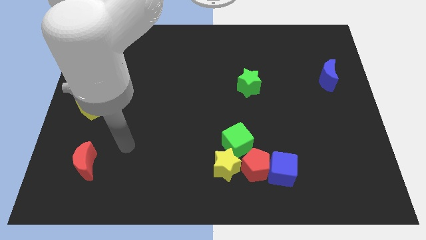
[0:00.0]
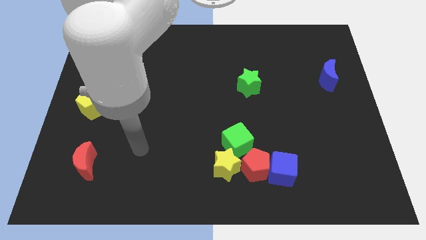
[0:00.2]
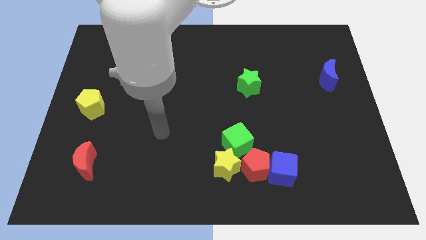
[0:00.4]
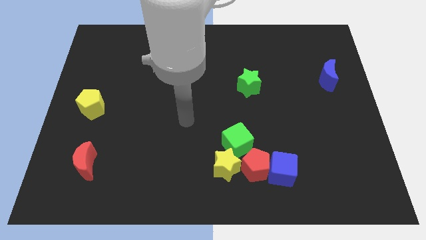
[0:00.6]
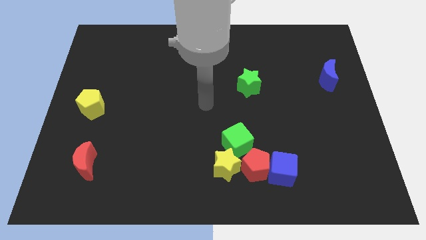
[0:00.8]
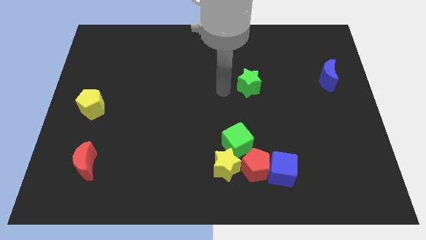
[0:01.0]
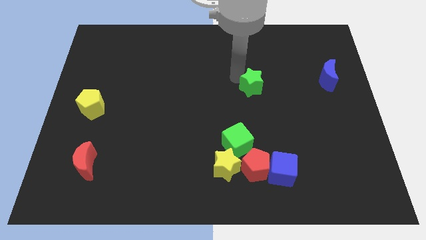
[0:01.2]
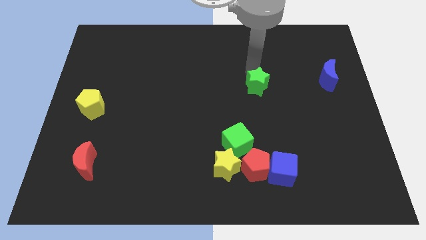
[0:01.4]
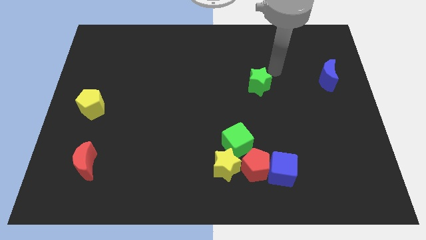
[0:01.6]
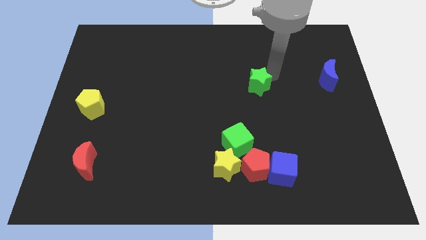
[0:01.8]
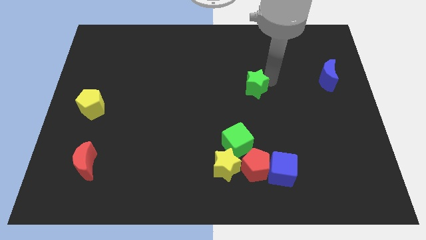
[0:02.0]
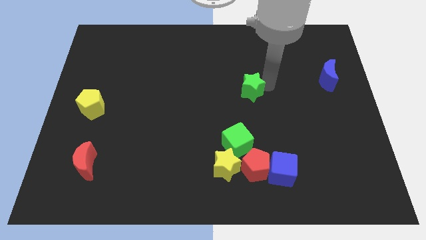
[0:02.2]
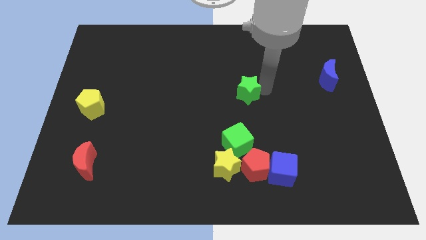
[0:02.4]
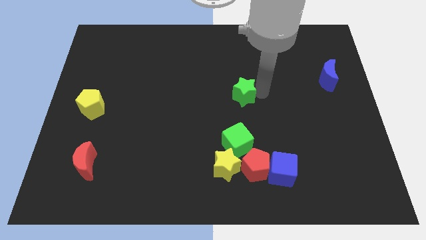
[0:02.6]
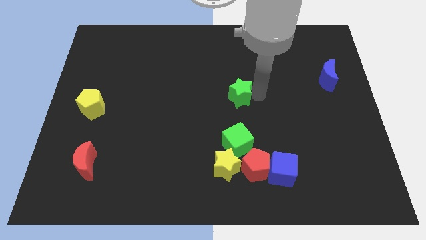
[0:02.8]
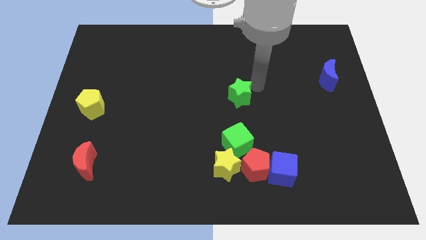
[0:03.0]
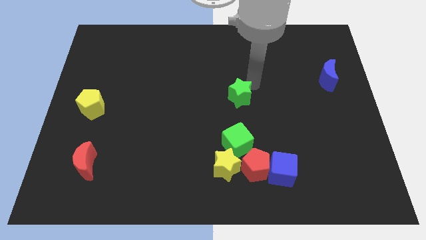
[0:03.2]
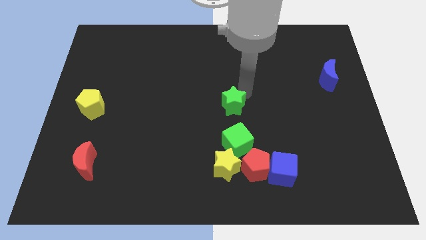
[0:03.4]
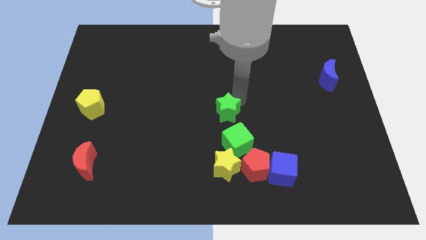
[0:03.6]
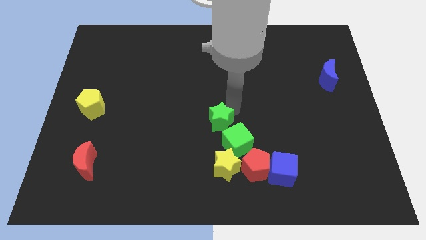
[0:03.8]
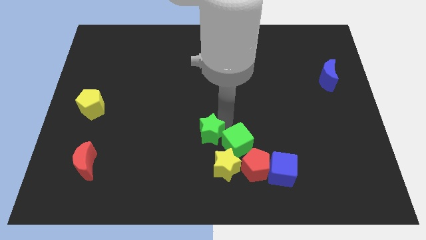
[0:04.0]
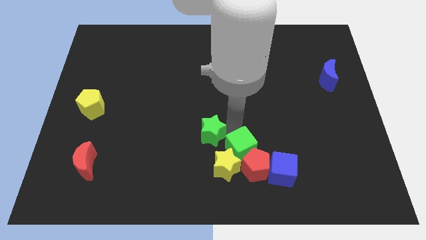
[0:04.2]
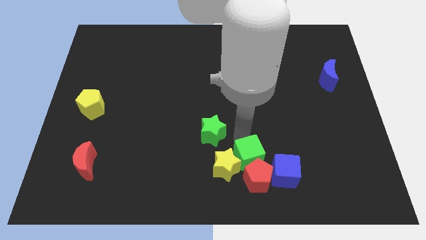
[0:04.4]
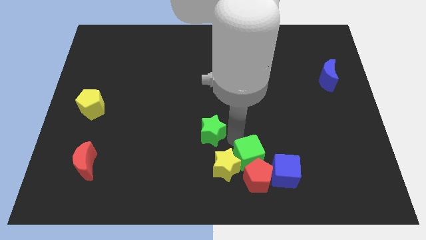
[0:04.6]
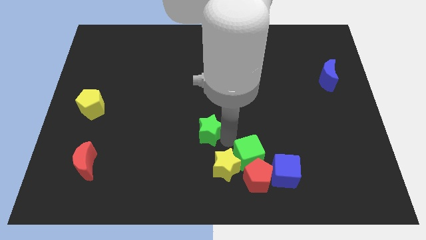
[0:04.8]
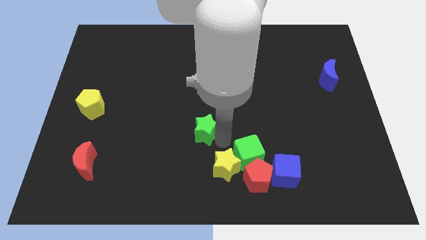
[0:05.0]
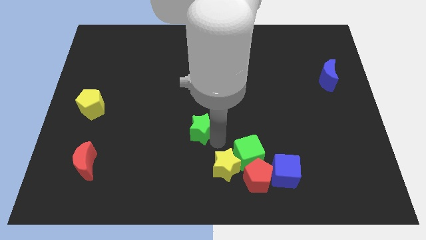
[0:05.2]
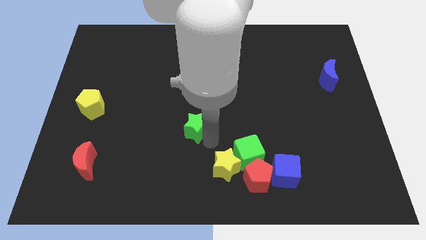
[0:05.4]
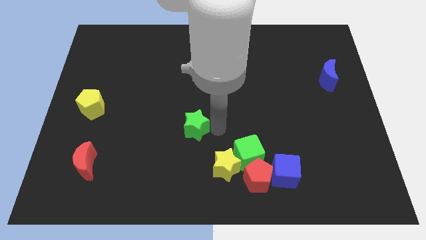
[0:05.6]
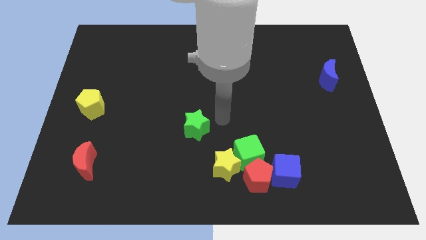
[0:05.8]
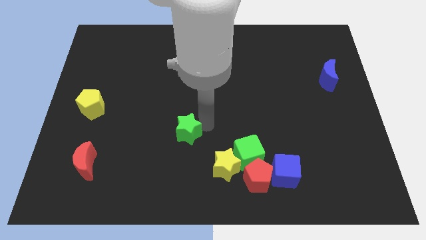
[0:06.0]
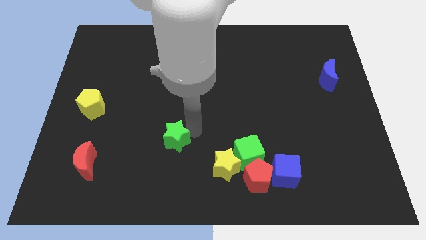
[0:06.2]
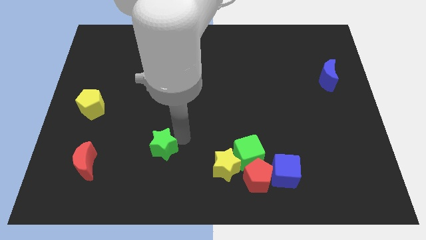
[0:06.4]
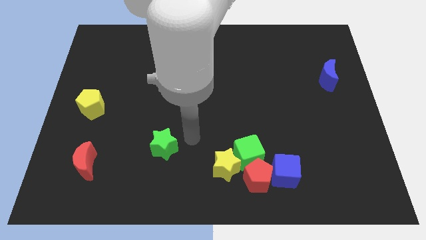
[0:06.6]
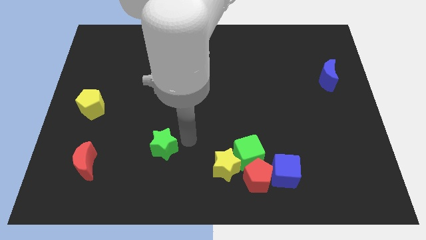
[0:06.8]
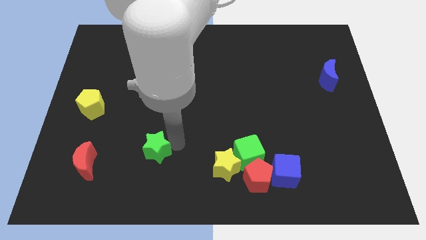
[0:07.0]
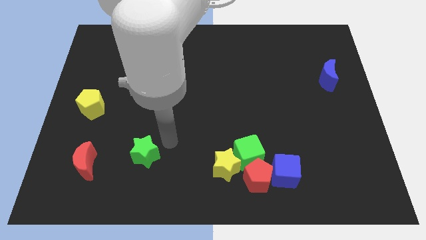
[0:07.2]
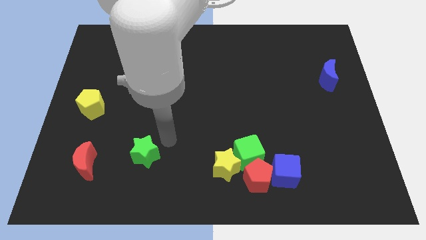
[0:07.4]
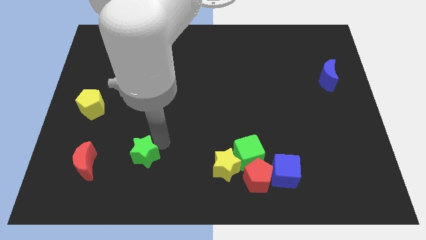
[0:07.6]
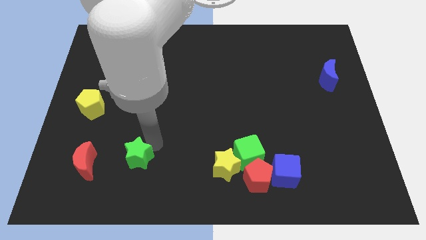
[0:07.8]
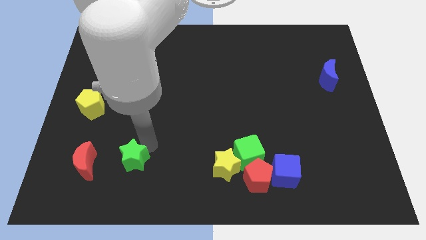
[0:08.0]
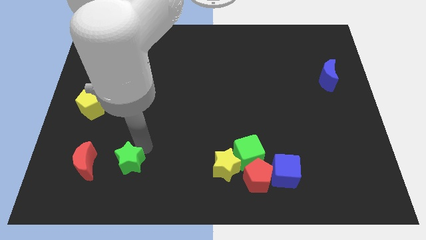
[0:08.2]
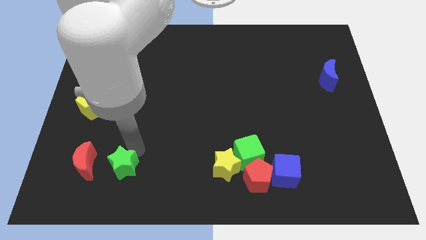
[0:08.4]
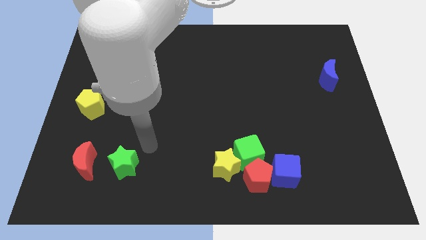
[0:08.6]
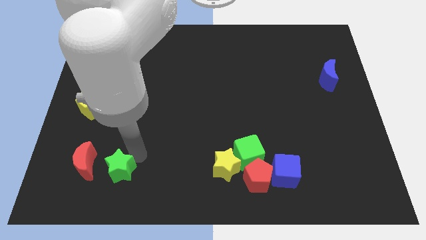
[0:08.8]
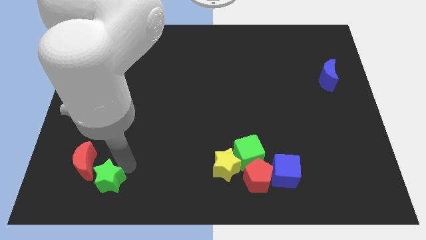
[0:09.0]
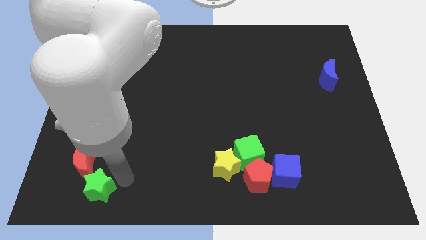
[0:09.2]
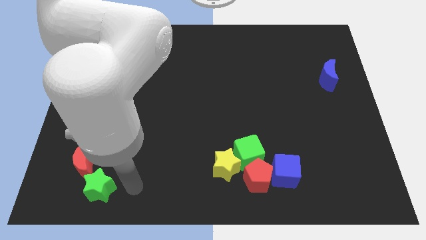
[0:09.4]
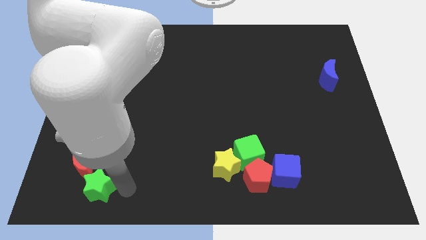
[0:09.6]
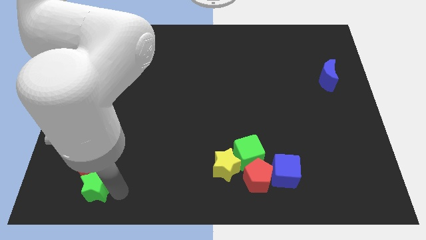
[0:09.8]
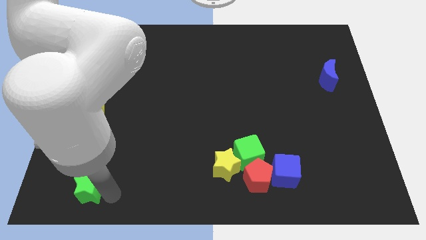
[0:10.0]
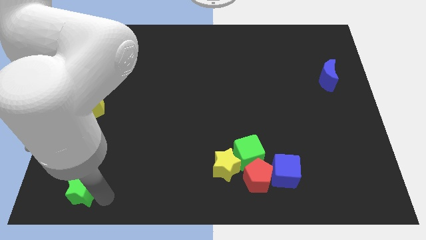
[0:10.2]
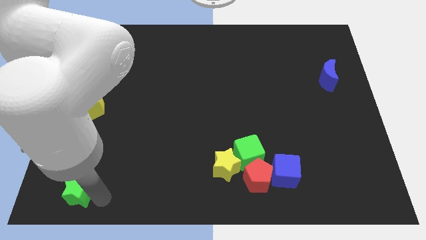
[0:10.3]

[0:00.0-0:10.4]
put the green star to the bottom left

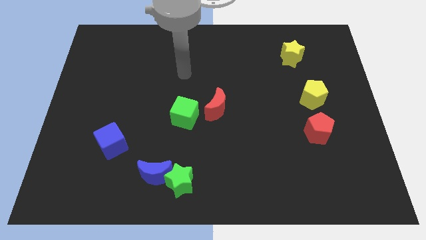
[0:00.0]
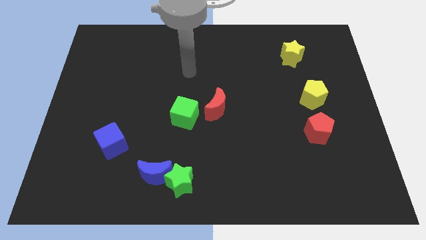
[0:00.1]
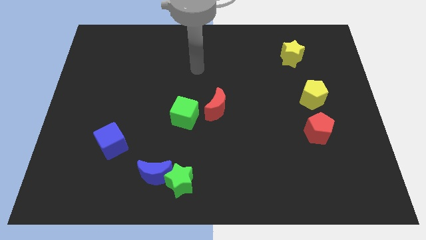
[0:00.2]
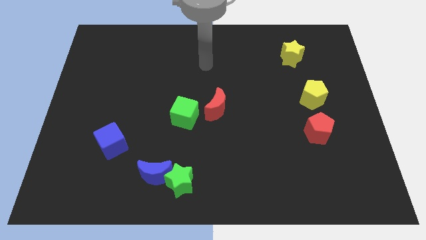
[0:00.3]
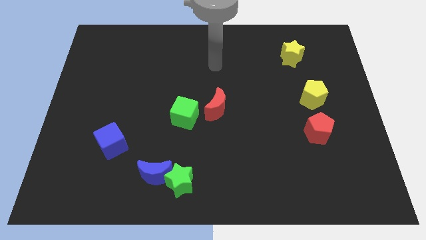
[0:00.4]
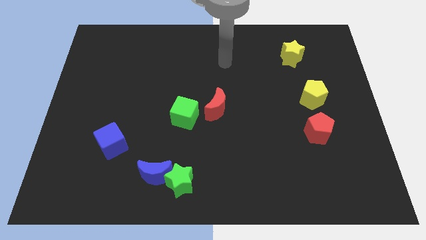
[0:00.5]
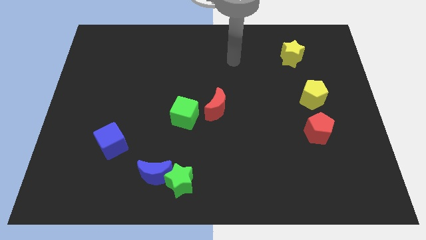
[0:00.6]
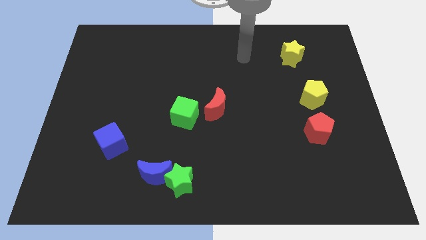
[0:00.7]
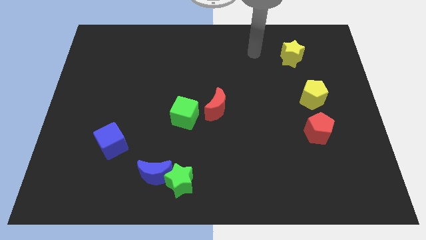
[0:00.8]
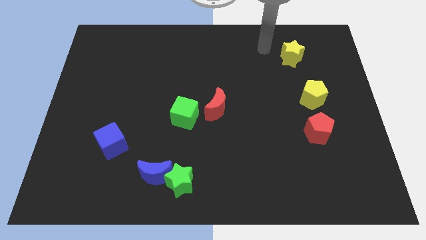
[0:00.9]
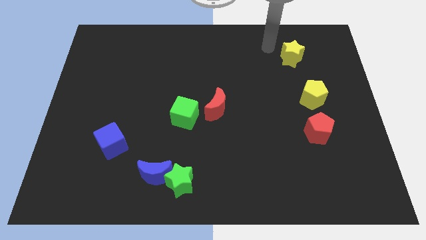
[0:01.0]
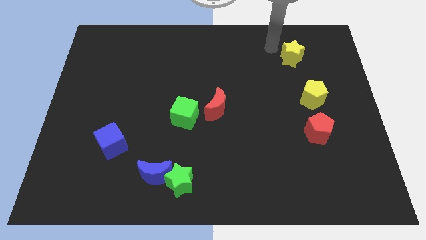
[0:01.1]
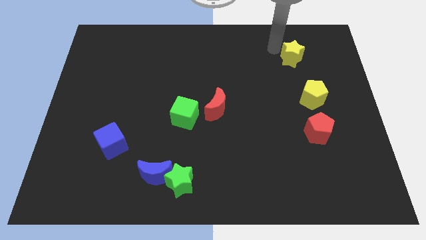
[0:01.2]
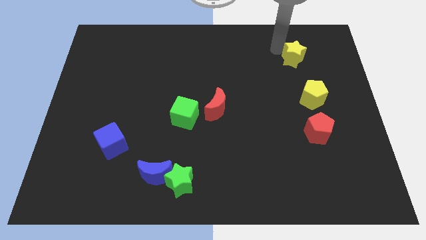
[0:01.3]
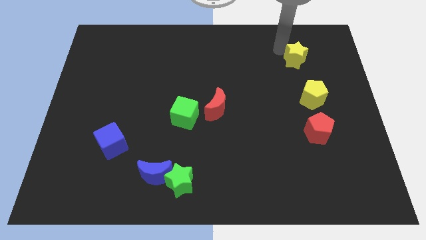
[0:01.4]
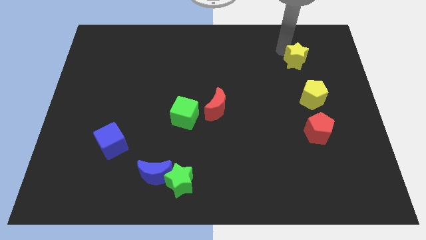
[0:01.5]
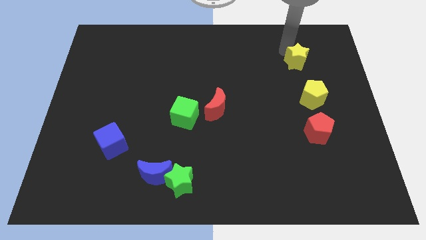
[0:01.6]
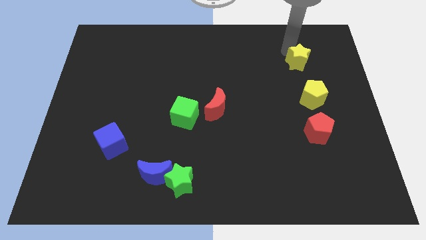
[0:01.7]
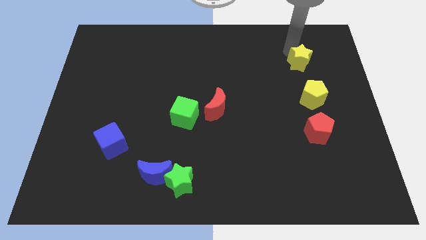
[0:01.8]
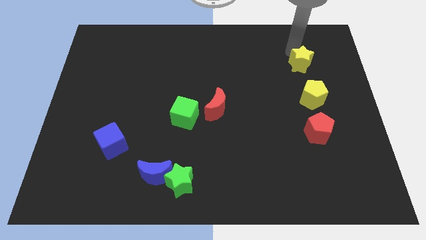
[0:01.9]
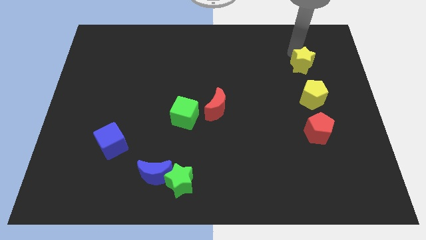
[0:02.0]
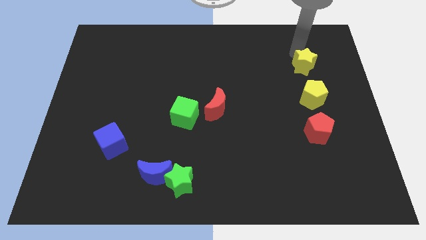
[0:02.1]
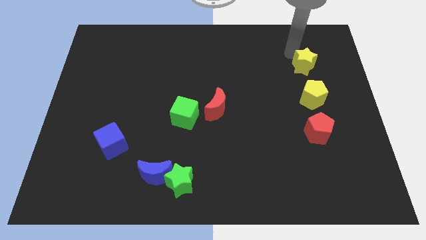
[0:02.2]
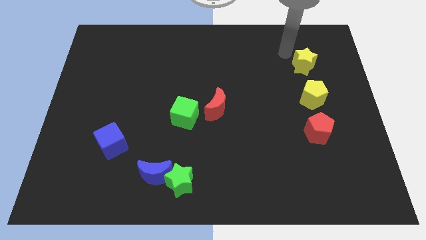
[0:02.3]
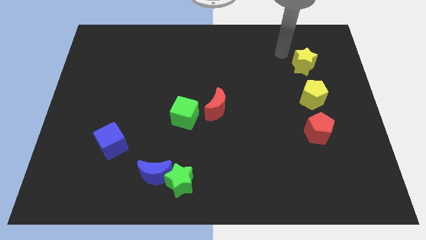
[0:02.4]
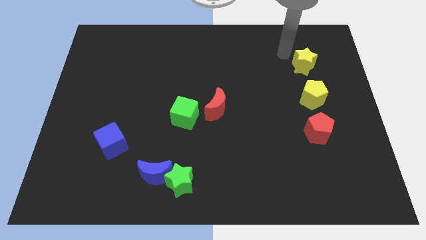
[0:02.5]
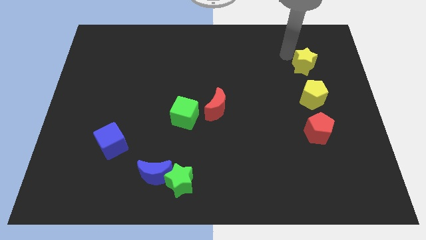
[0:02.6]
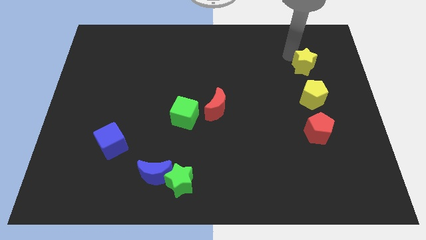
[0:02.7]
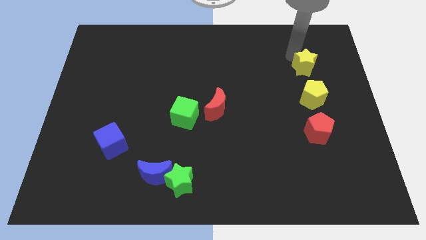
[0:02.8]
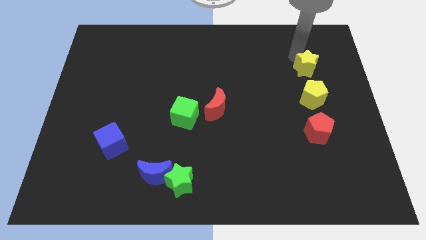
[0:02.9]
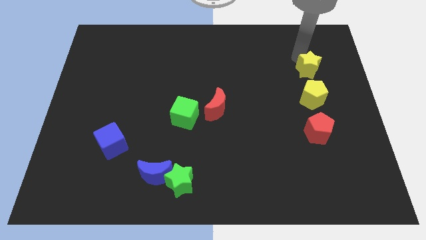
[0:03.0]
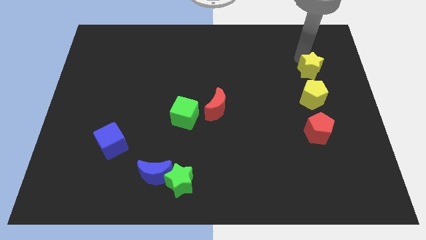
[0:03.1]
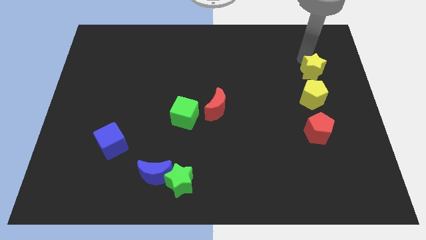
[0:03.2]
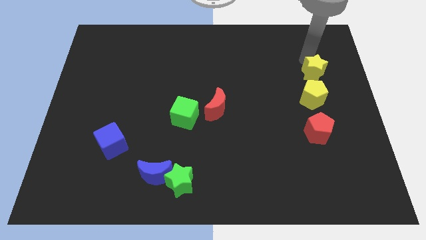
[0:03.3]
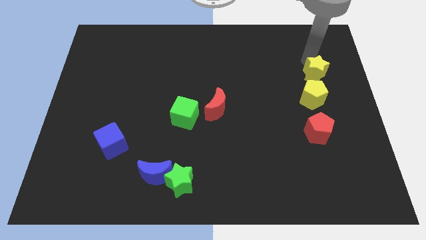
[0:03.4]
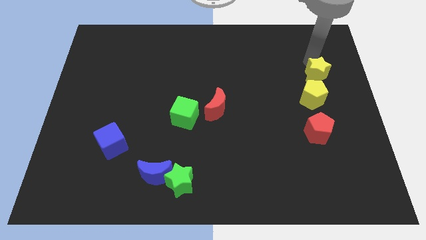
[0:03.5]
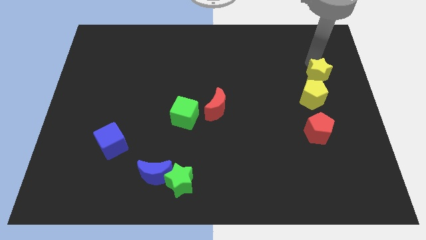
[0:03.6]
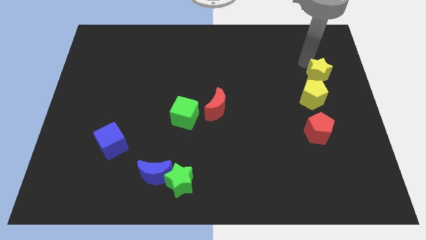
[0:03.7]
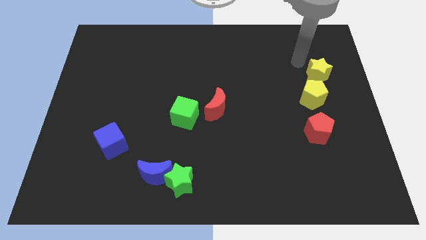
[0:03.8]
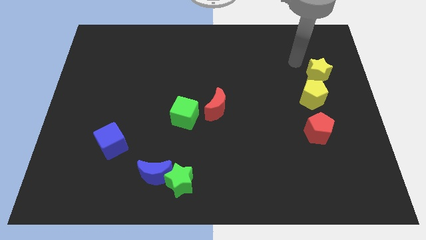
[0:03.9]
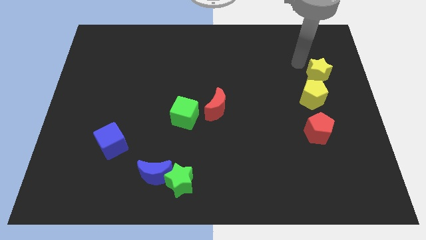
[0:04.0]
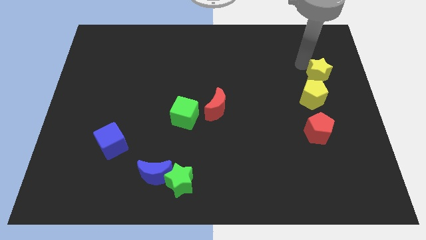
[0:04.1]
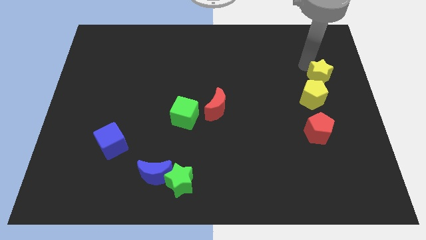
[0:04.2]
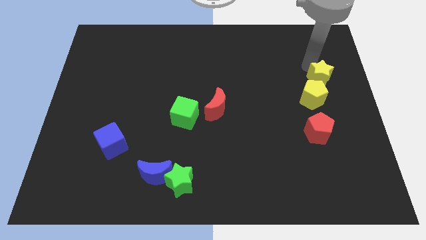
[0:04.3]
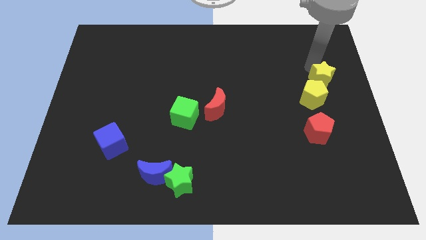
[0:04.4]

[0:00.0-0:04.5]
put the yellow star to the right side
